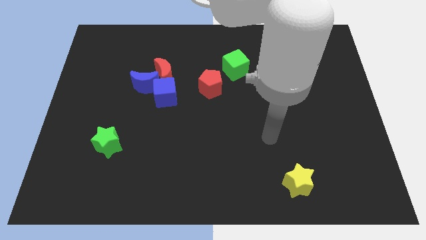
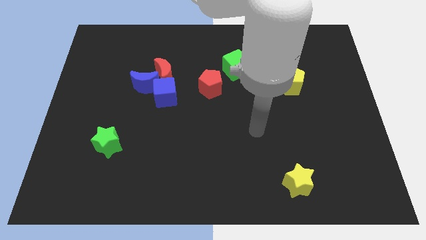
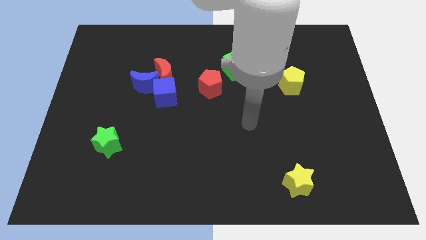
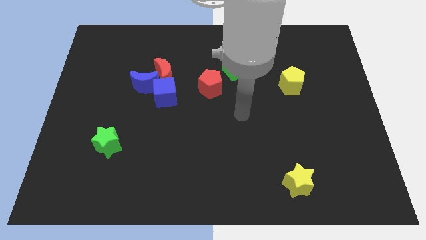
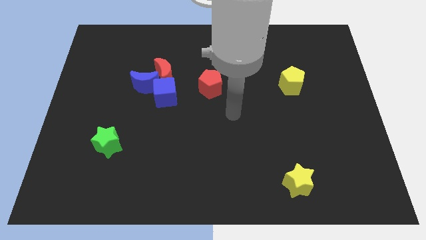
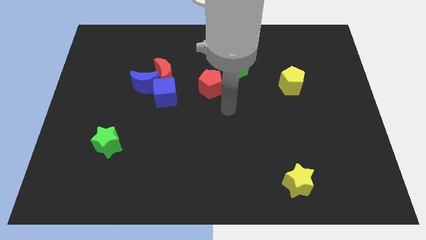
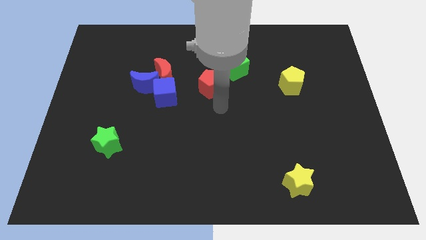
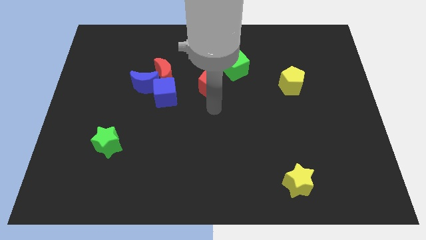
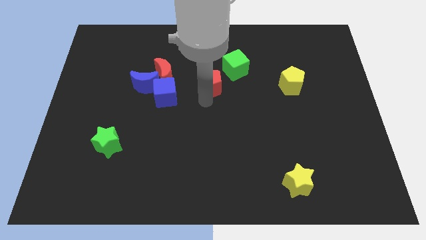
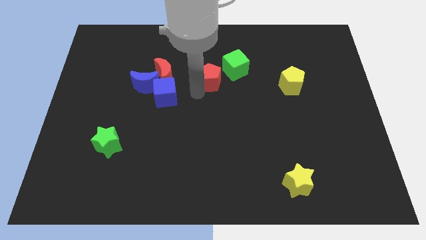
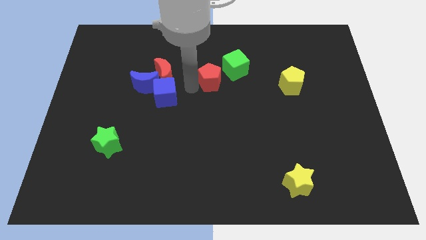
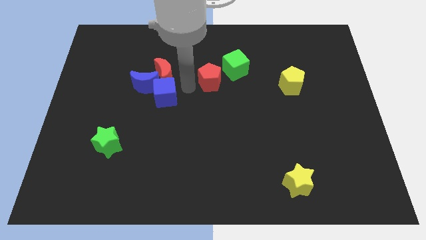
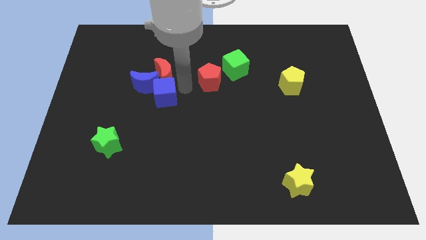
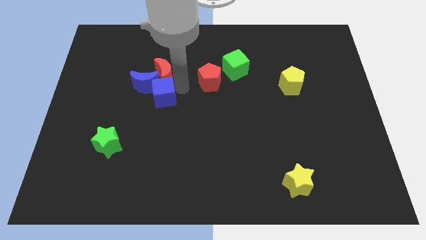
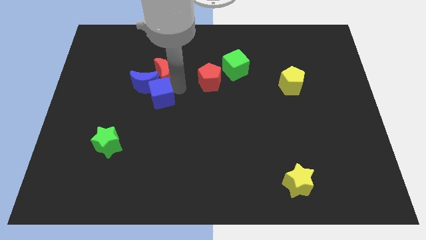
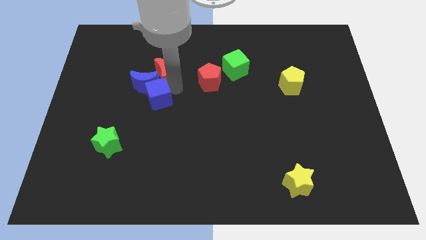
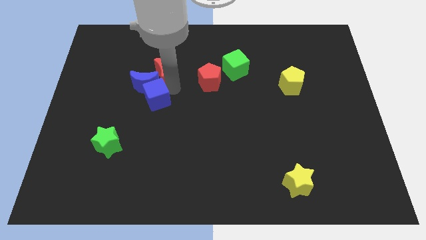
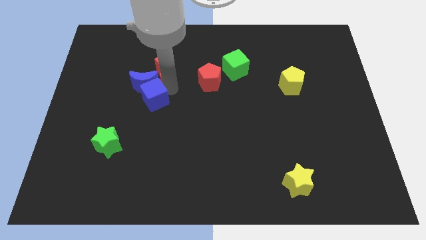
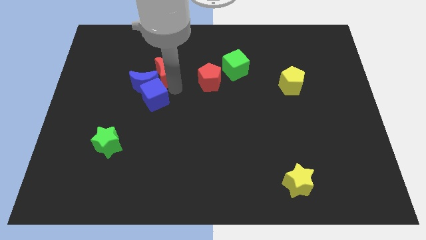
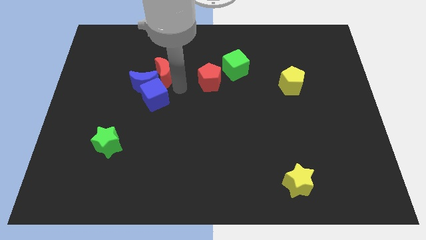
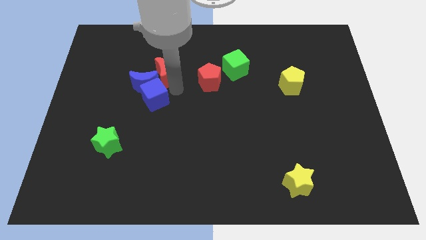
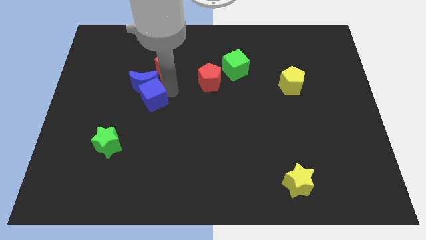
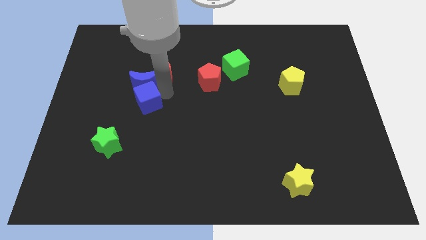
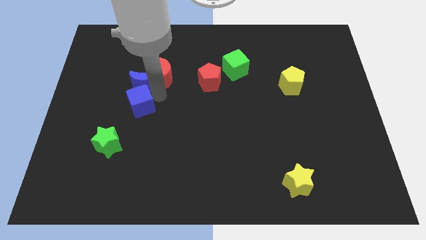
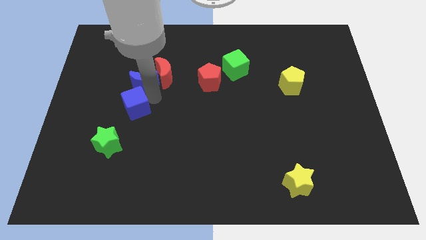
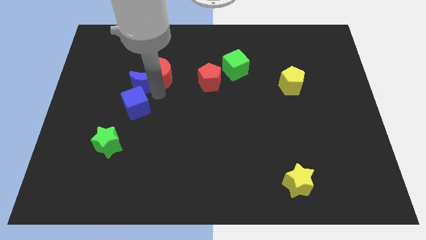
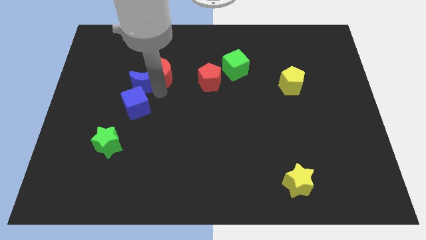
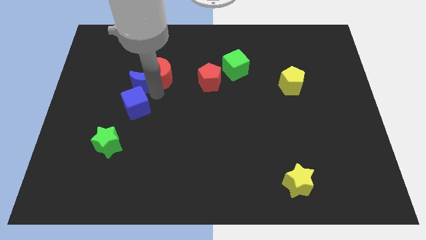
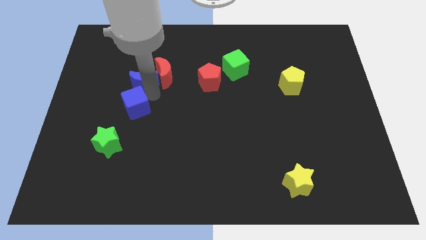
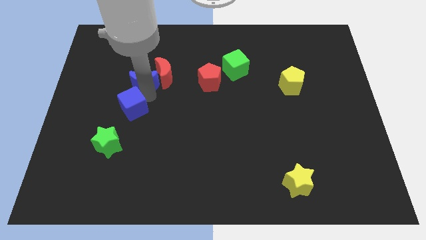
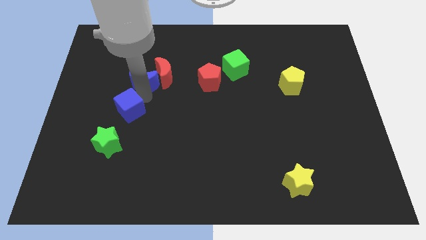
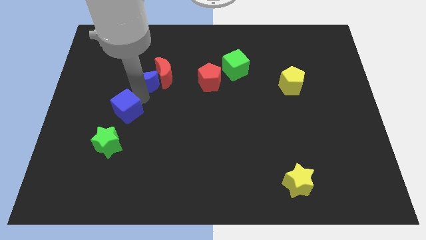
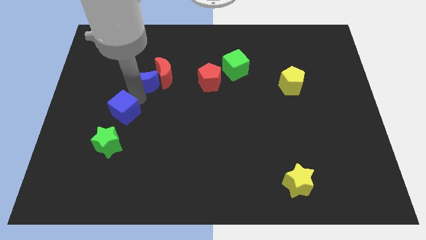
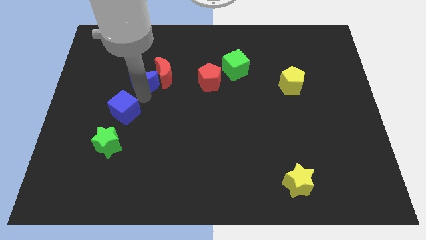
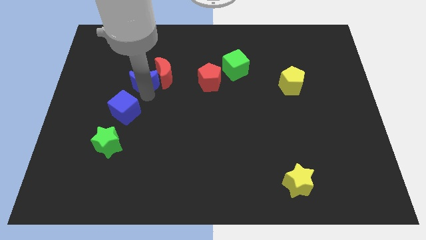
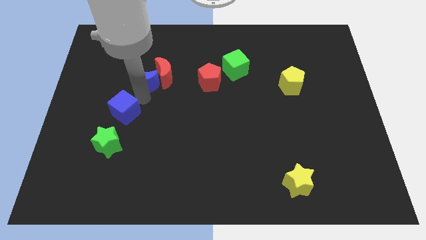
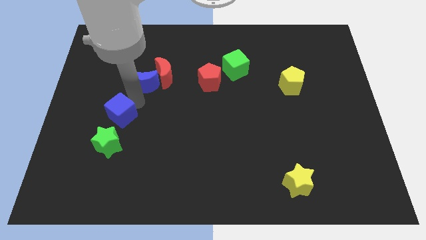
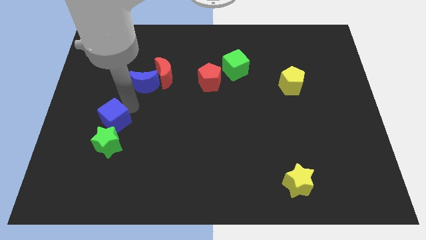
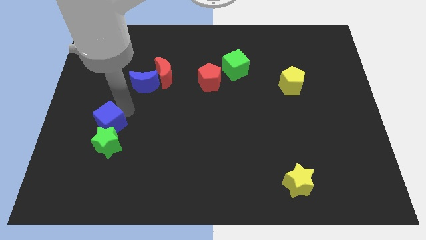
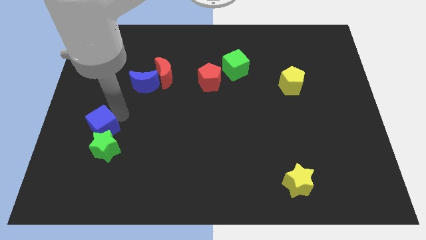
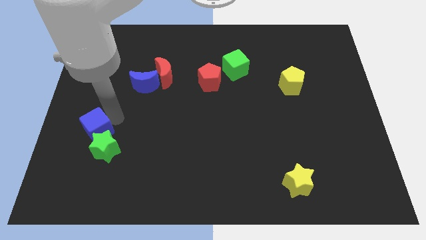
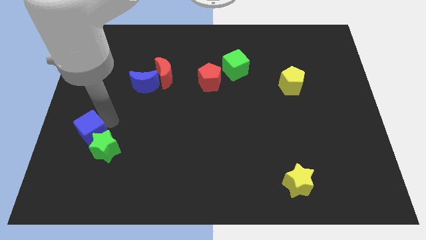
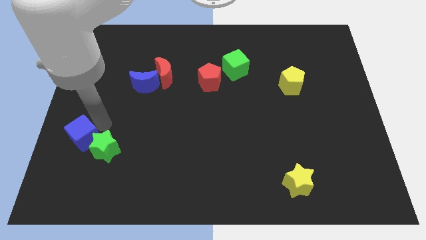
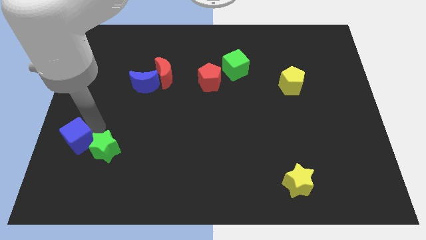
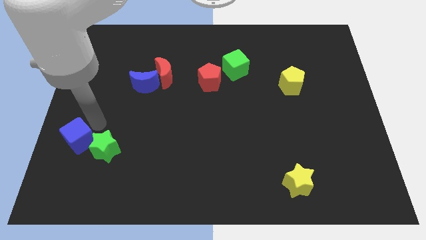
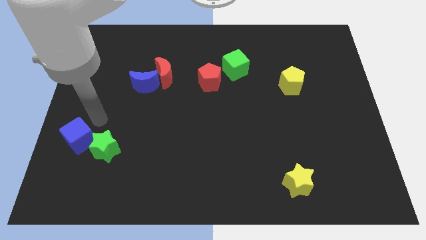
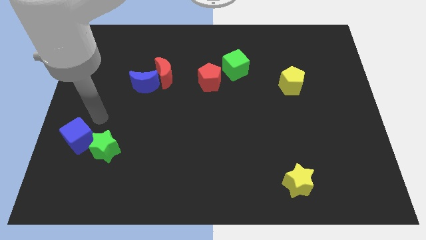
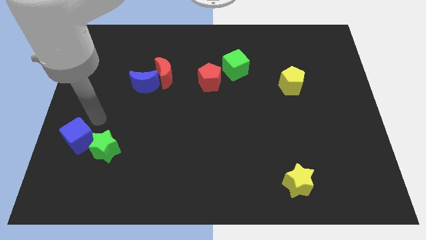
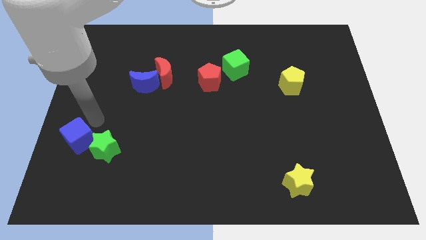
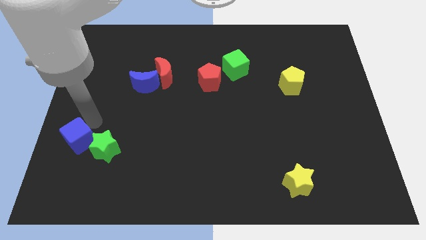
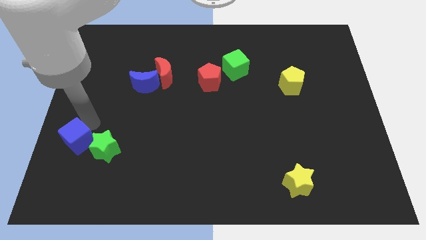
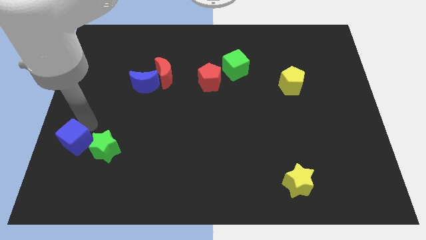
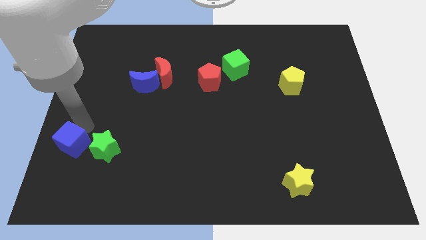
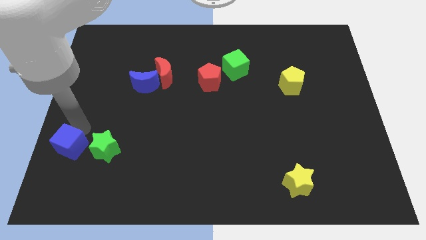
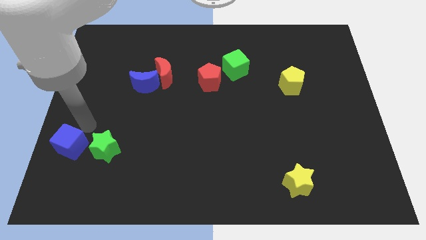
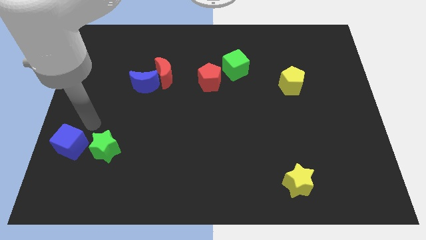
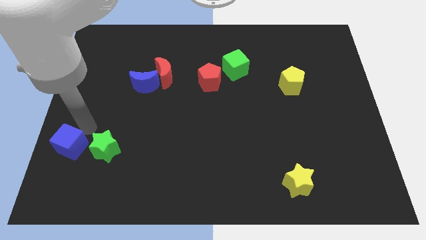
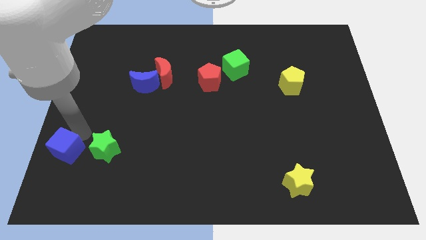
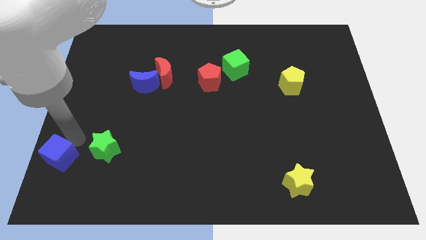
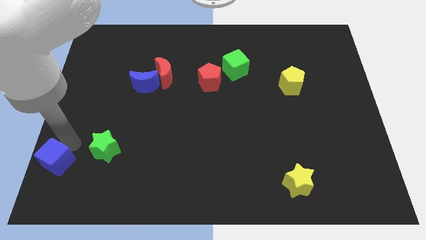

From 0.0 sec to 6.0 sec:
move the blue cube to the bottom left corner

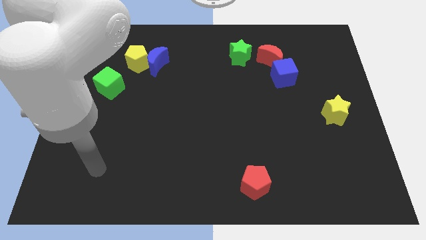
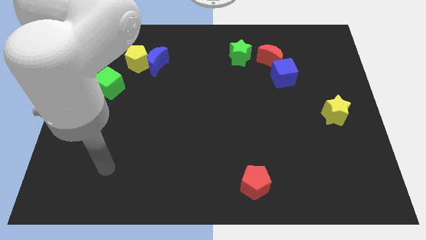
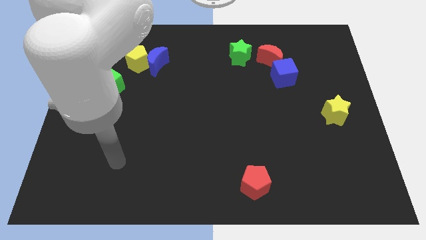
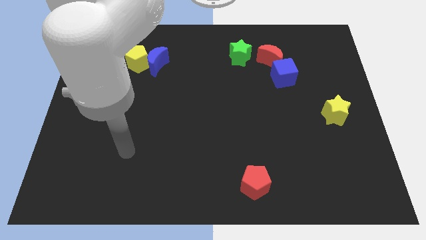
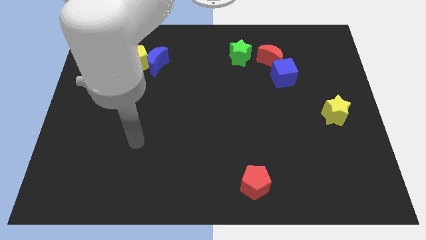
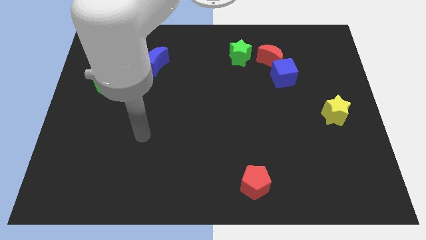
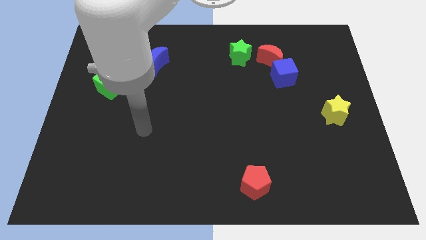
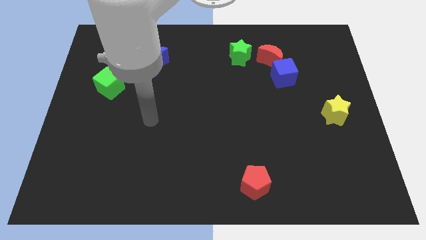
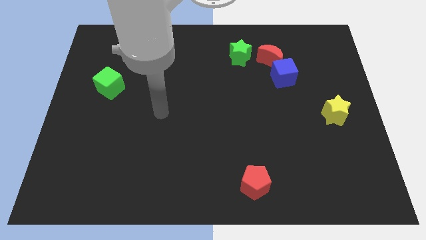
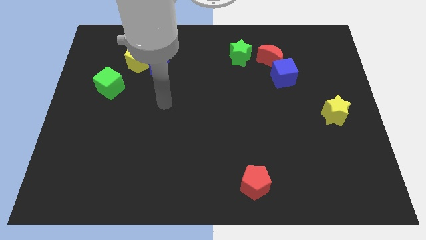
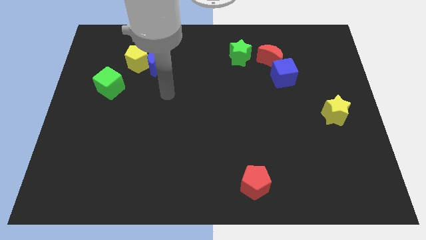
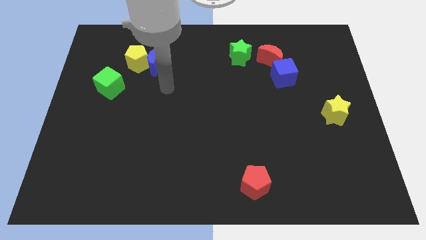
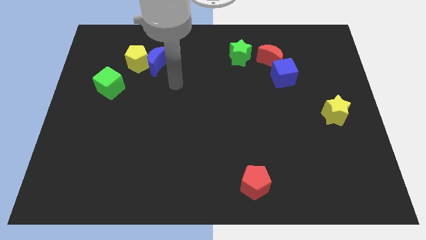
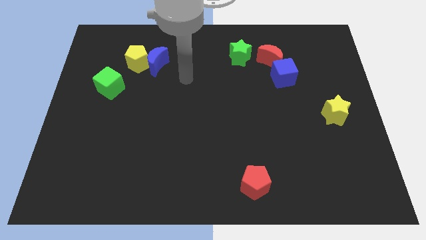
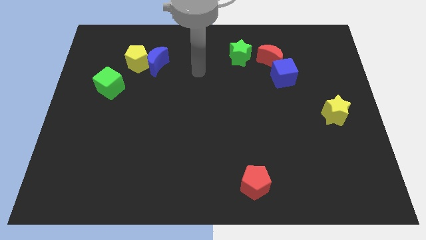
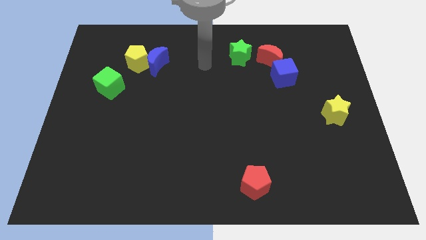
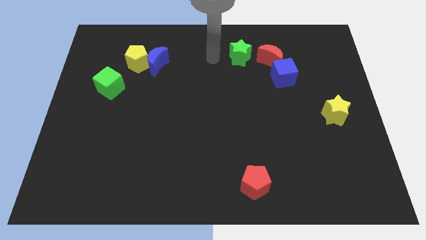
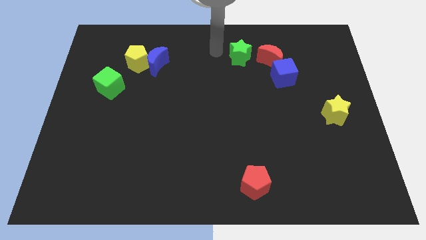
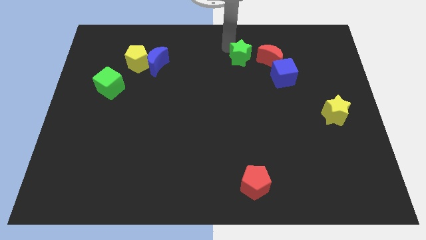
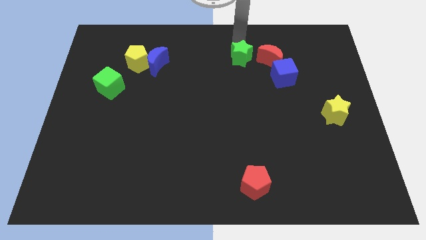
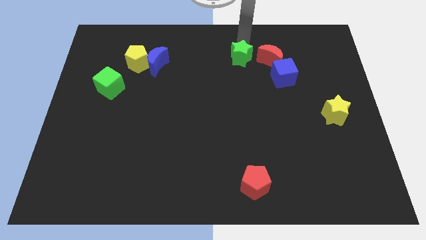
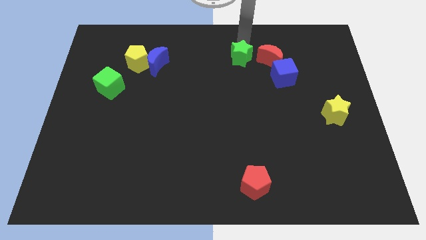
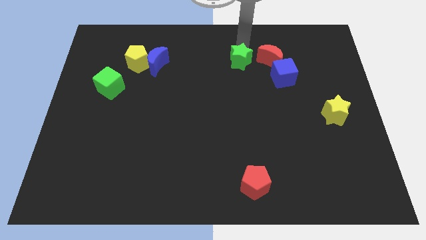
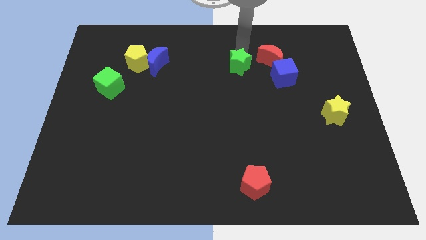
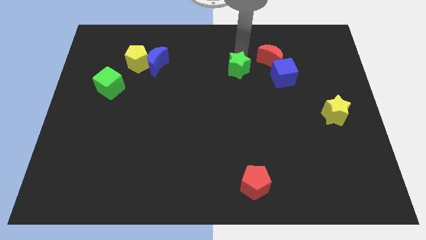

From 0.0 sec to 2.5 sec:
push the green star to the center
